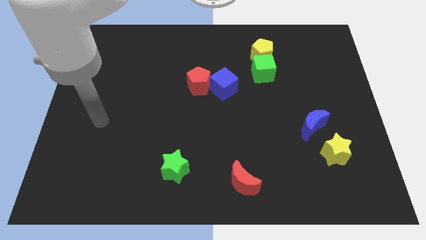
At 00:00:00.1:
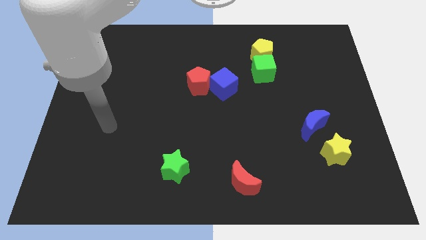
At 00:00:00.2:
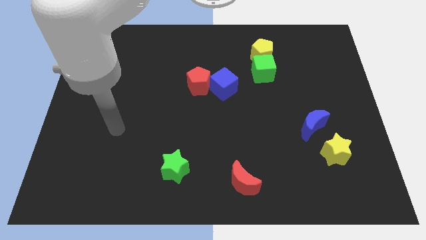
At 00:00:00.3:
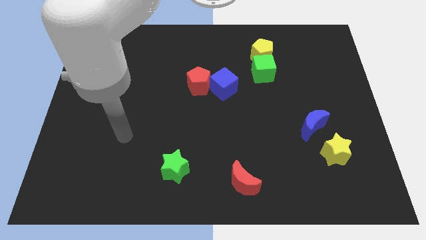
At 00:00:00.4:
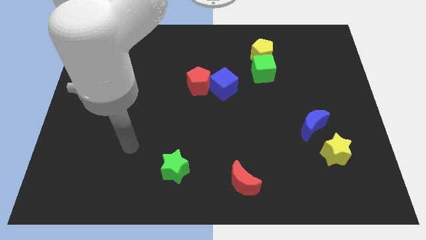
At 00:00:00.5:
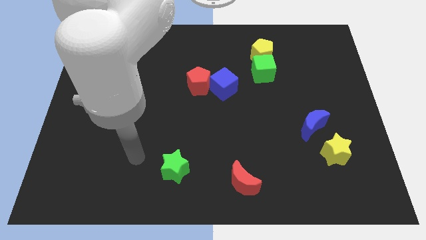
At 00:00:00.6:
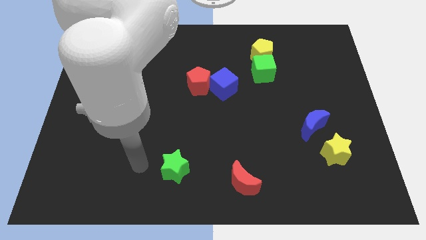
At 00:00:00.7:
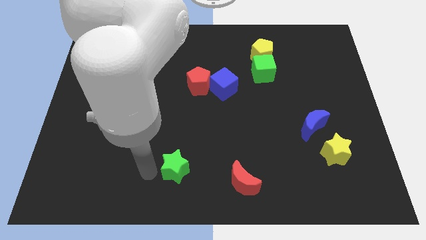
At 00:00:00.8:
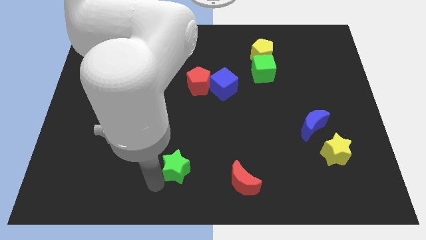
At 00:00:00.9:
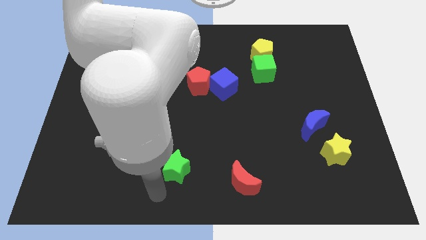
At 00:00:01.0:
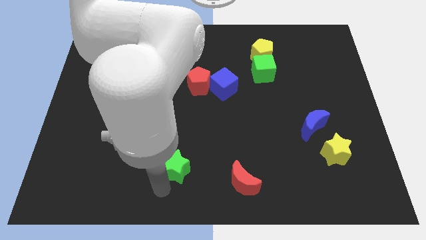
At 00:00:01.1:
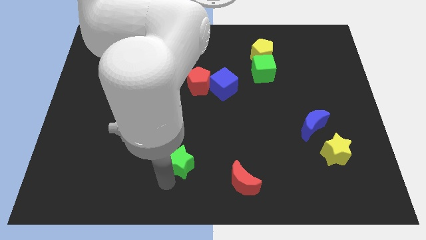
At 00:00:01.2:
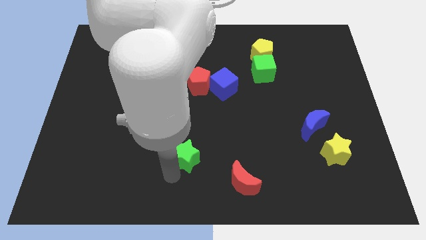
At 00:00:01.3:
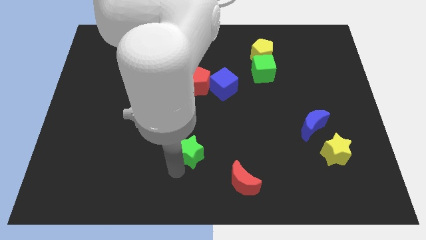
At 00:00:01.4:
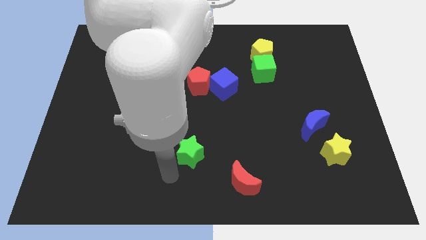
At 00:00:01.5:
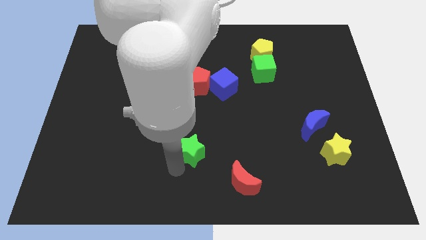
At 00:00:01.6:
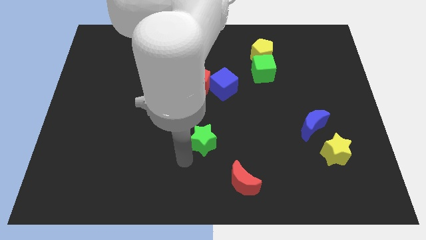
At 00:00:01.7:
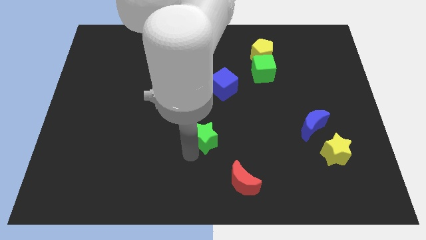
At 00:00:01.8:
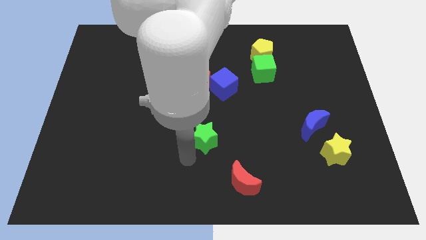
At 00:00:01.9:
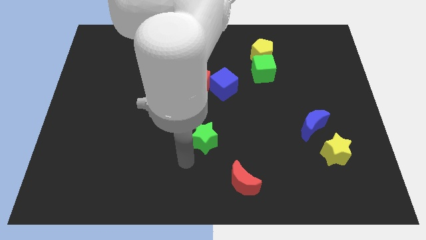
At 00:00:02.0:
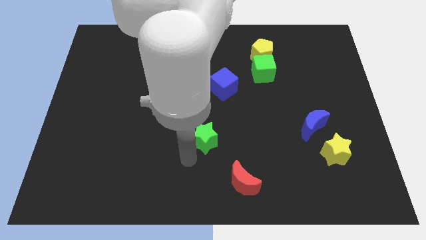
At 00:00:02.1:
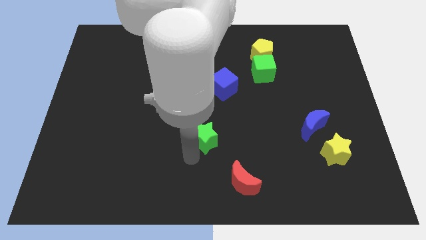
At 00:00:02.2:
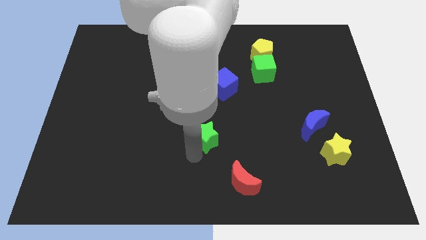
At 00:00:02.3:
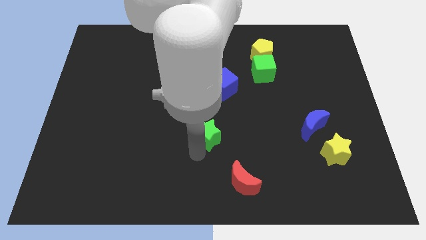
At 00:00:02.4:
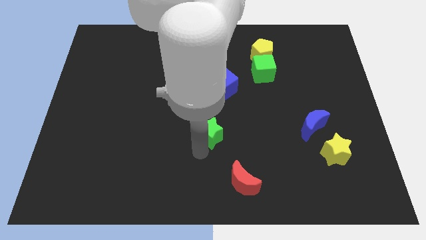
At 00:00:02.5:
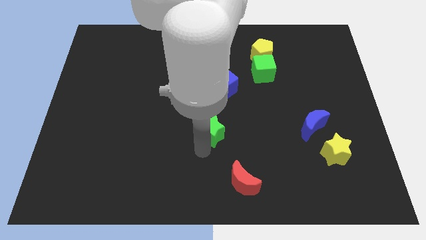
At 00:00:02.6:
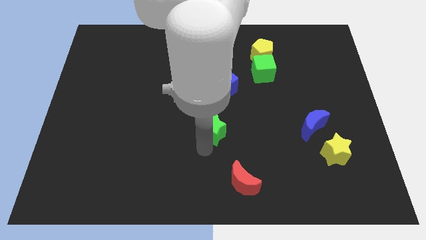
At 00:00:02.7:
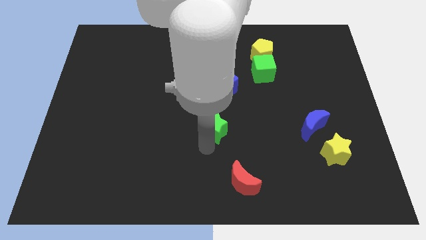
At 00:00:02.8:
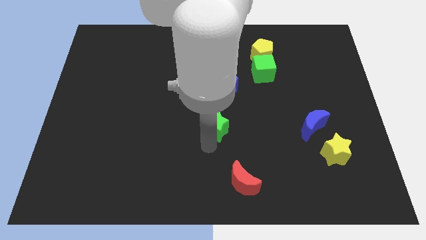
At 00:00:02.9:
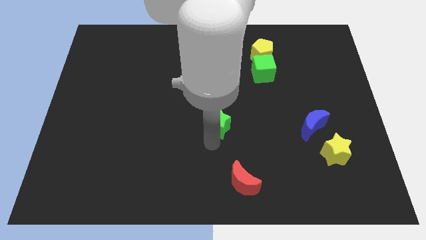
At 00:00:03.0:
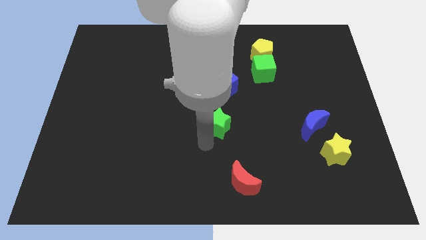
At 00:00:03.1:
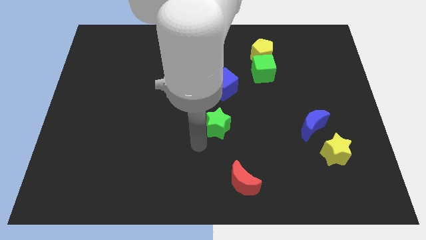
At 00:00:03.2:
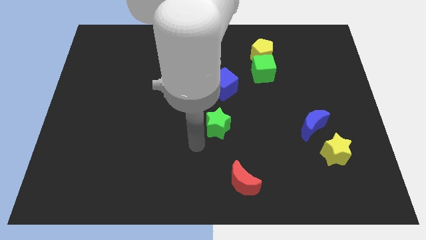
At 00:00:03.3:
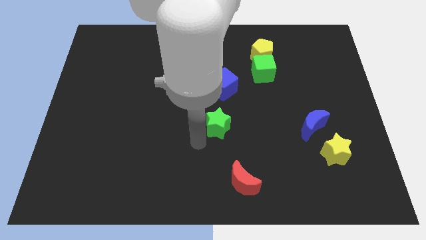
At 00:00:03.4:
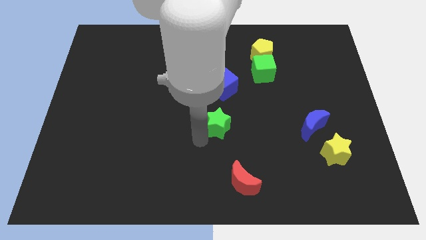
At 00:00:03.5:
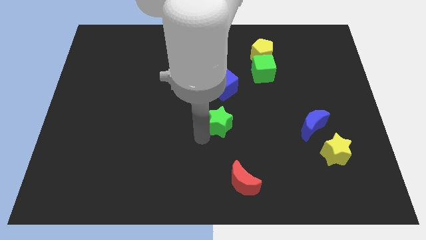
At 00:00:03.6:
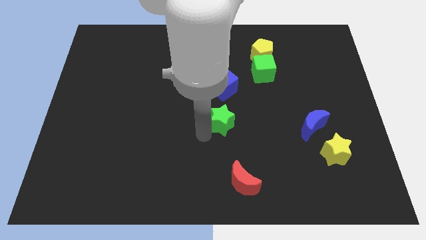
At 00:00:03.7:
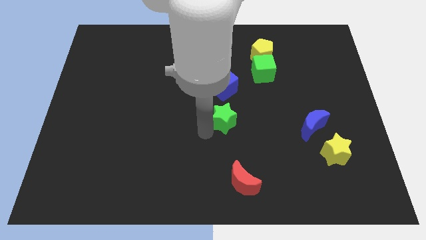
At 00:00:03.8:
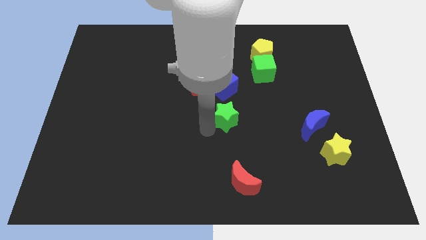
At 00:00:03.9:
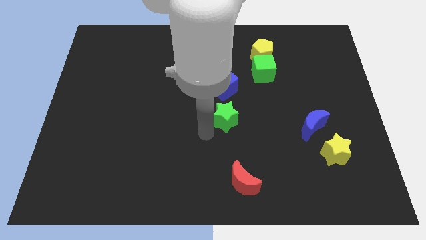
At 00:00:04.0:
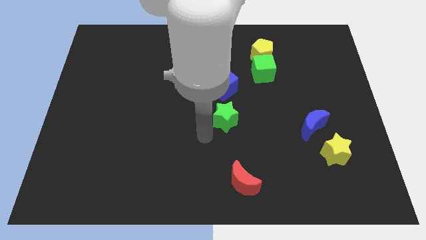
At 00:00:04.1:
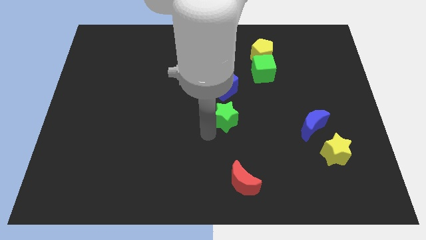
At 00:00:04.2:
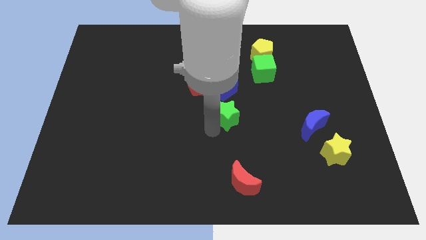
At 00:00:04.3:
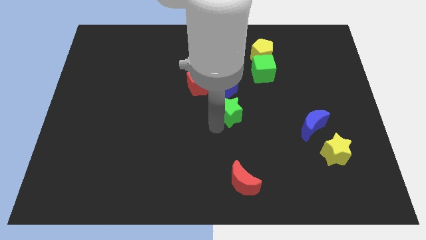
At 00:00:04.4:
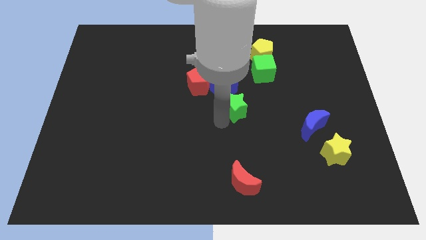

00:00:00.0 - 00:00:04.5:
push the green star up and to the right diagonally

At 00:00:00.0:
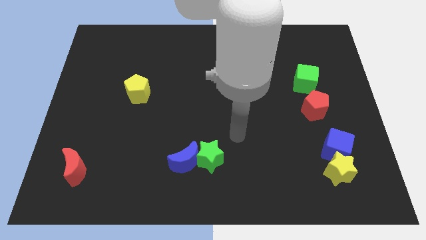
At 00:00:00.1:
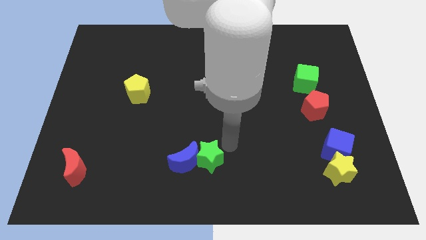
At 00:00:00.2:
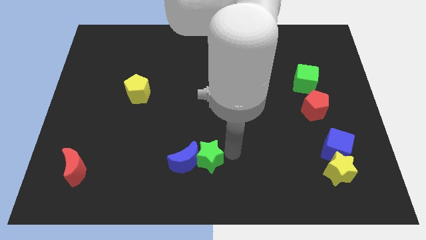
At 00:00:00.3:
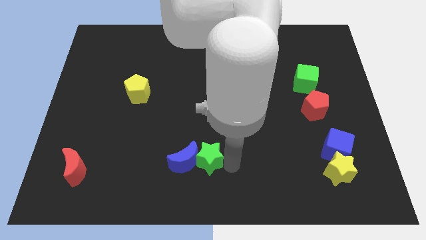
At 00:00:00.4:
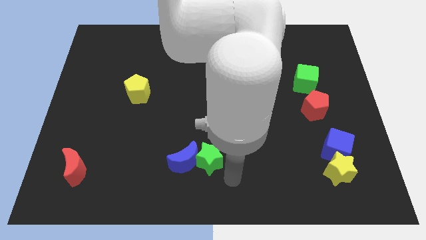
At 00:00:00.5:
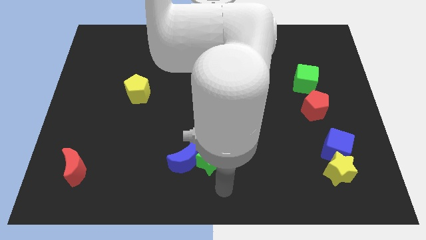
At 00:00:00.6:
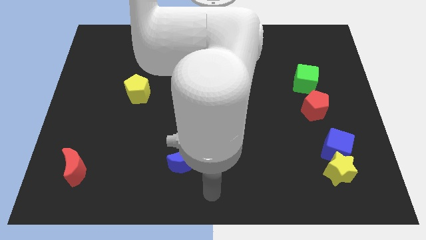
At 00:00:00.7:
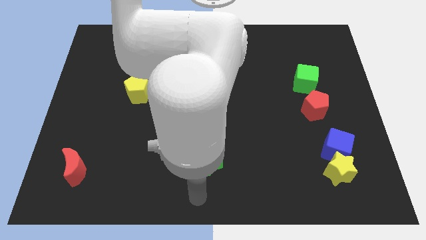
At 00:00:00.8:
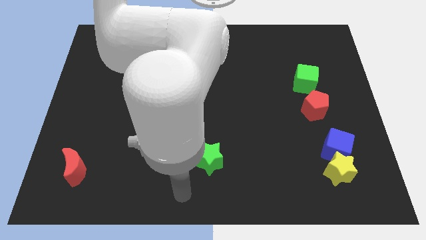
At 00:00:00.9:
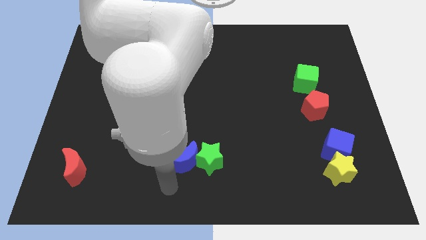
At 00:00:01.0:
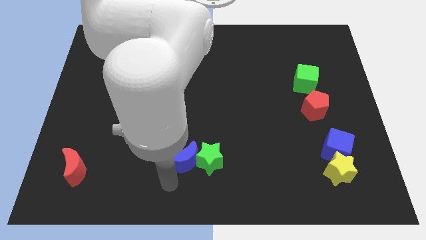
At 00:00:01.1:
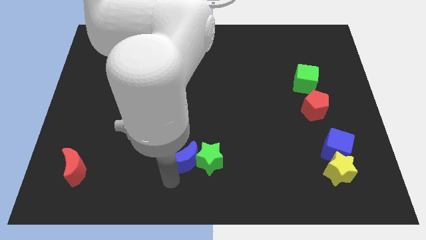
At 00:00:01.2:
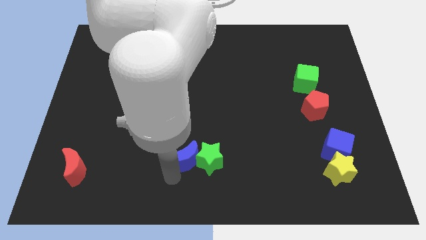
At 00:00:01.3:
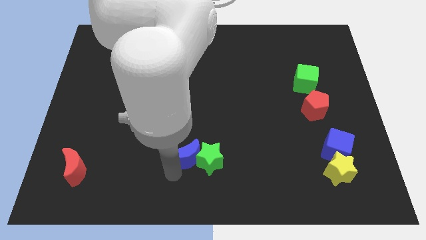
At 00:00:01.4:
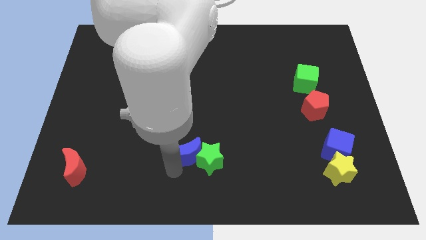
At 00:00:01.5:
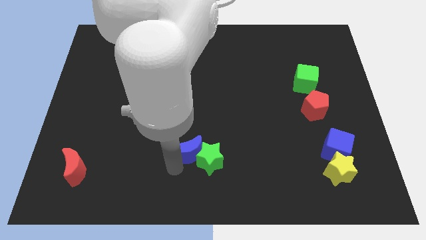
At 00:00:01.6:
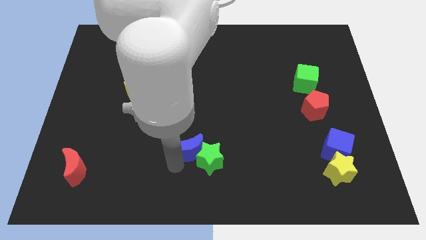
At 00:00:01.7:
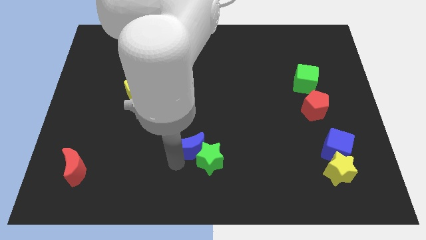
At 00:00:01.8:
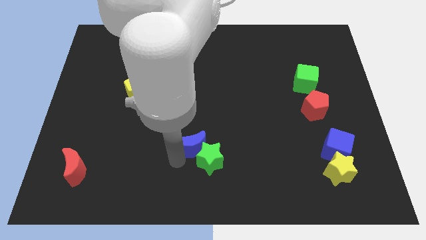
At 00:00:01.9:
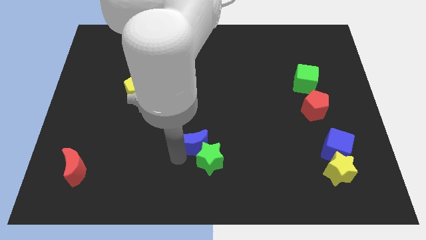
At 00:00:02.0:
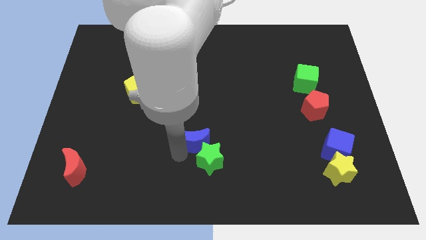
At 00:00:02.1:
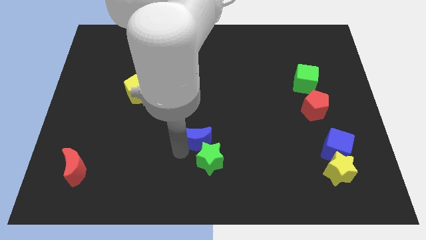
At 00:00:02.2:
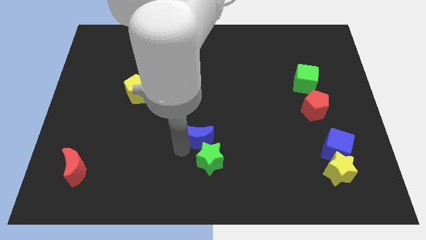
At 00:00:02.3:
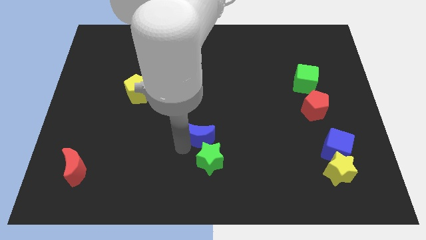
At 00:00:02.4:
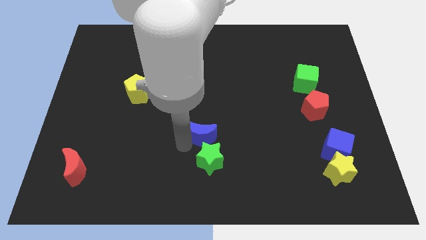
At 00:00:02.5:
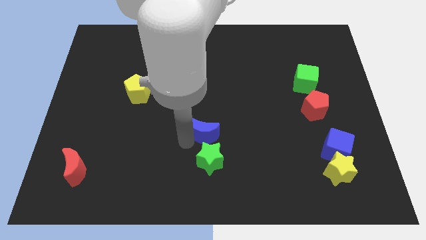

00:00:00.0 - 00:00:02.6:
slide the blue moon up and then right a little bit

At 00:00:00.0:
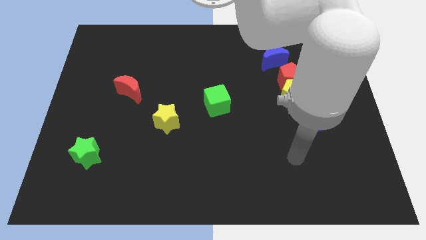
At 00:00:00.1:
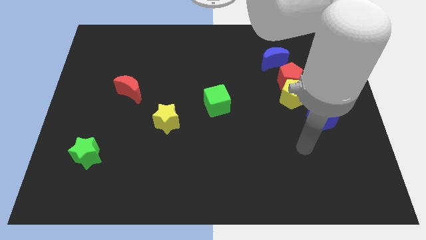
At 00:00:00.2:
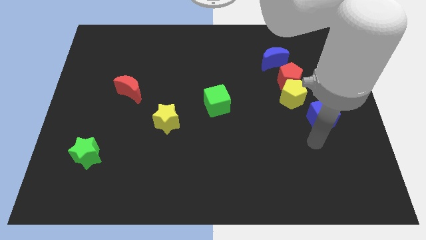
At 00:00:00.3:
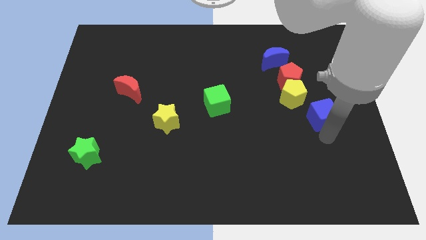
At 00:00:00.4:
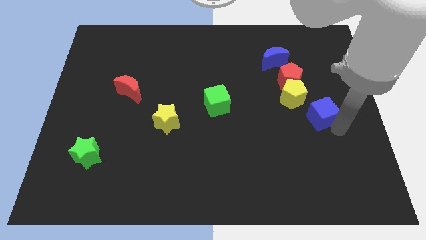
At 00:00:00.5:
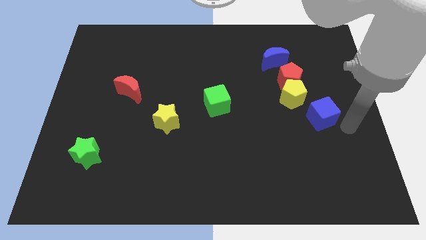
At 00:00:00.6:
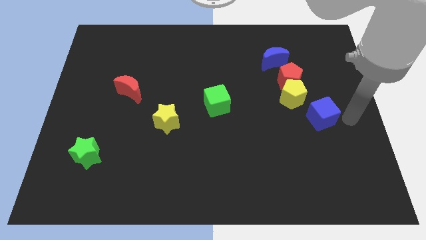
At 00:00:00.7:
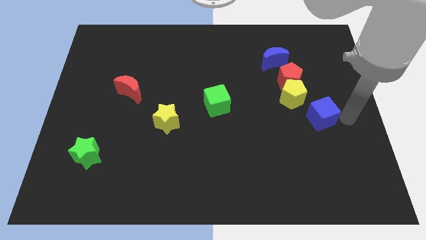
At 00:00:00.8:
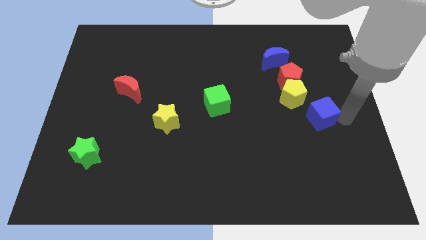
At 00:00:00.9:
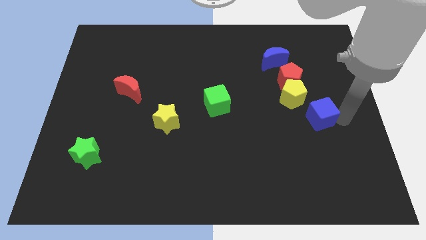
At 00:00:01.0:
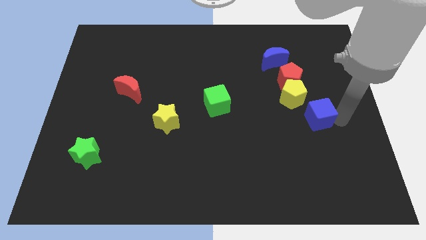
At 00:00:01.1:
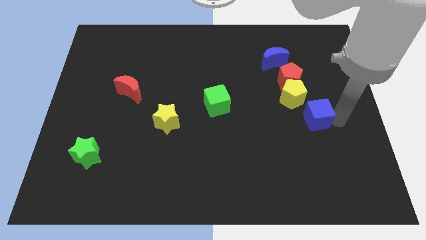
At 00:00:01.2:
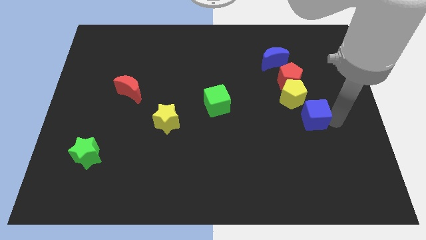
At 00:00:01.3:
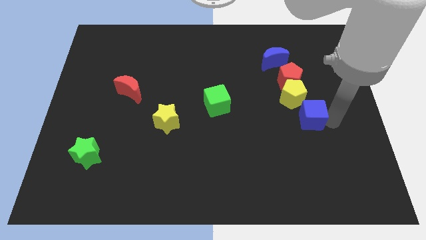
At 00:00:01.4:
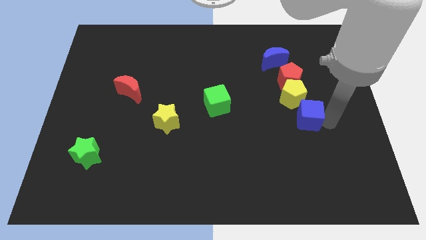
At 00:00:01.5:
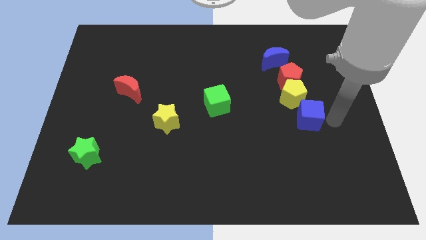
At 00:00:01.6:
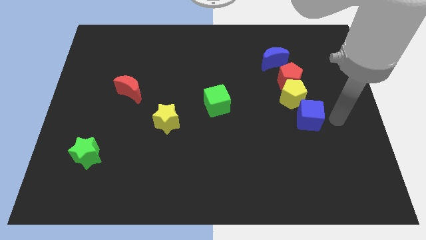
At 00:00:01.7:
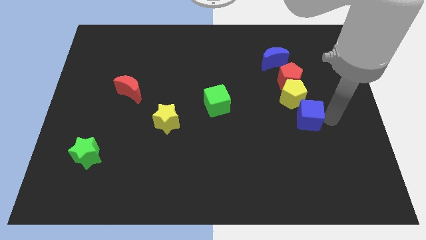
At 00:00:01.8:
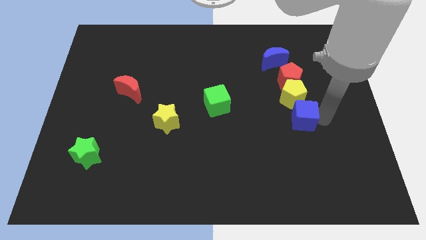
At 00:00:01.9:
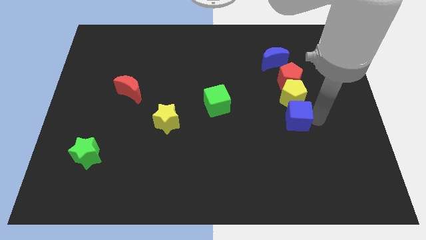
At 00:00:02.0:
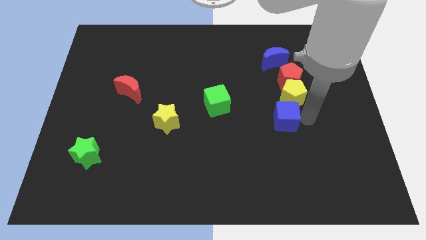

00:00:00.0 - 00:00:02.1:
slide the blue cube left somewhat
